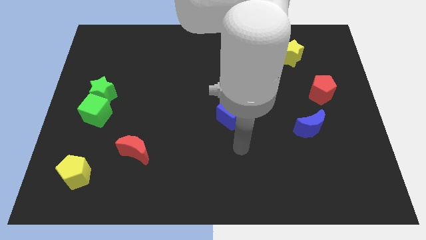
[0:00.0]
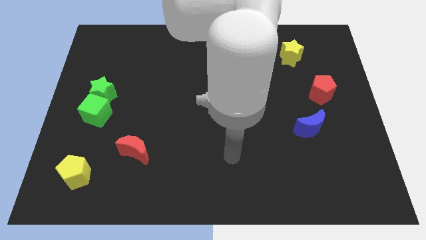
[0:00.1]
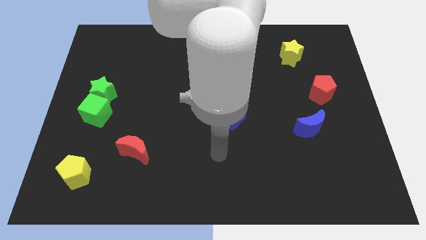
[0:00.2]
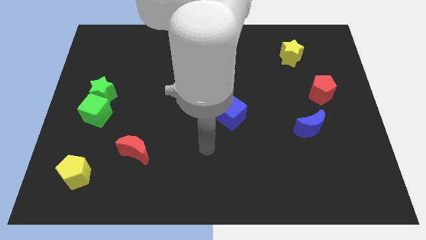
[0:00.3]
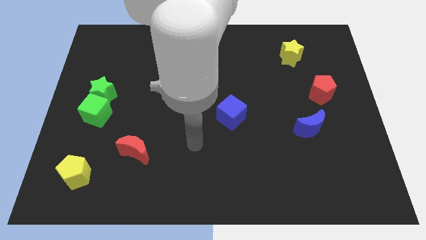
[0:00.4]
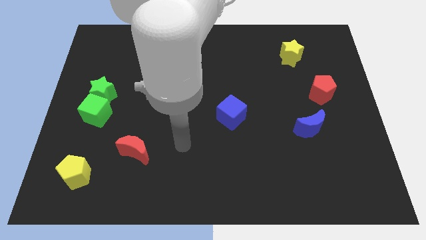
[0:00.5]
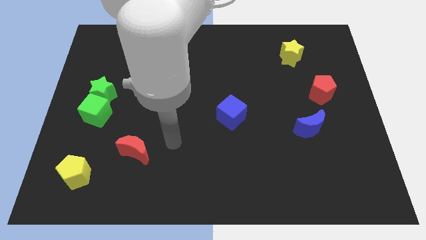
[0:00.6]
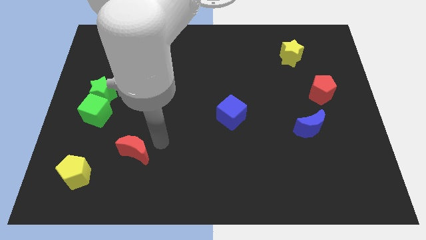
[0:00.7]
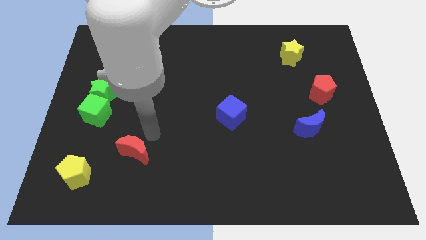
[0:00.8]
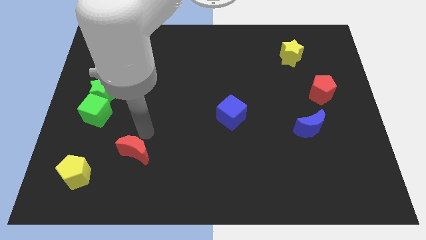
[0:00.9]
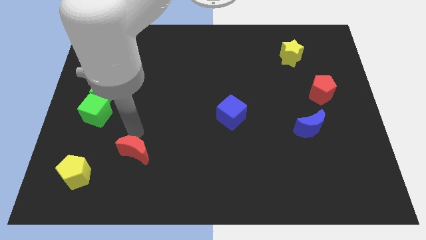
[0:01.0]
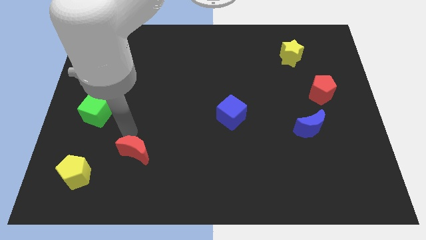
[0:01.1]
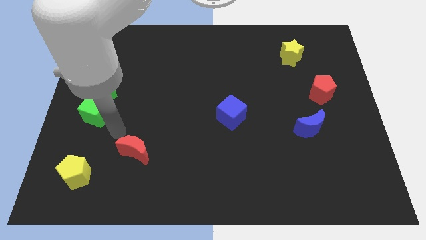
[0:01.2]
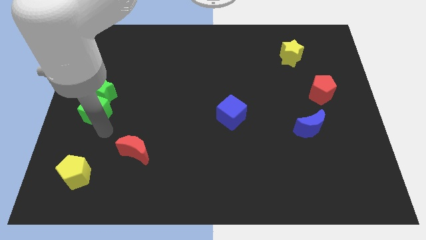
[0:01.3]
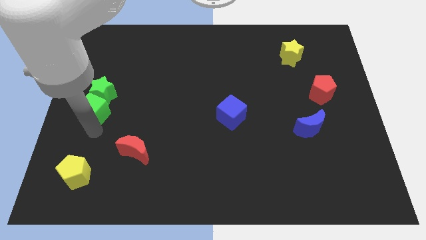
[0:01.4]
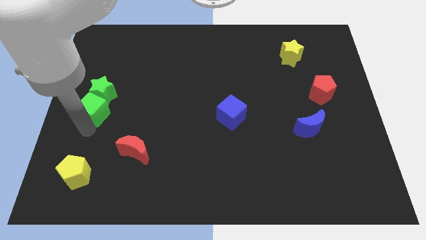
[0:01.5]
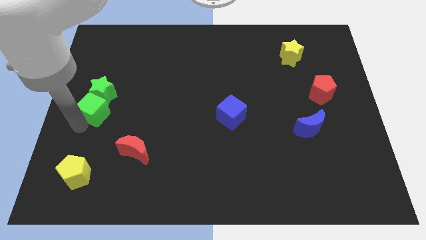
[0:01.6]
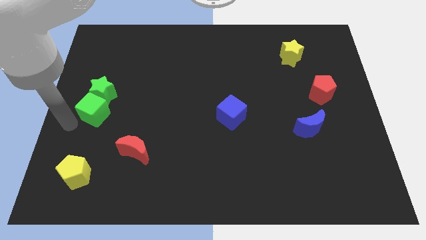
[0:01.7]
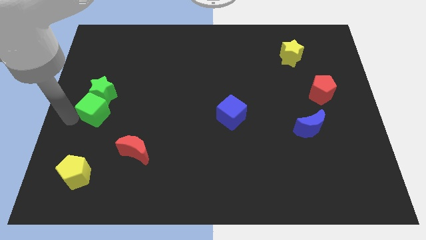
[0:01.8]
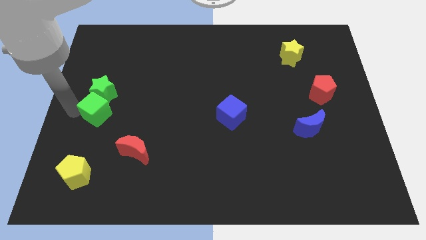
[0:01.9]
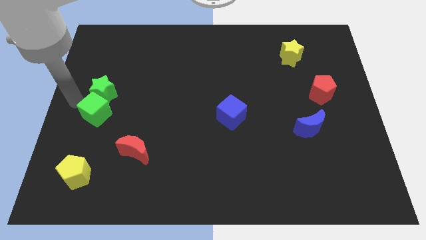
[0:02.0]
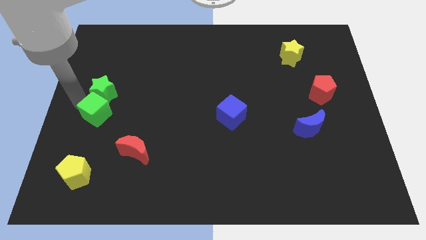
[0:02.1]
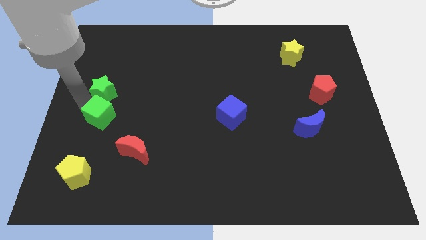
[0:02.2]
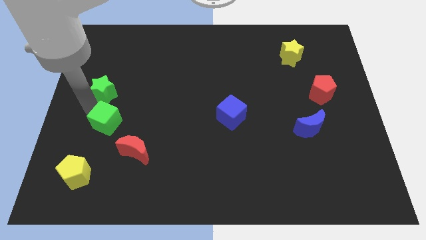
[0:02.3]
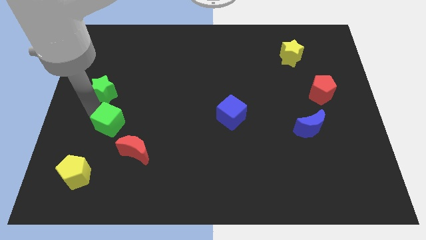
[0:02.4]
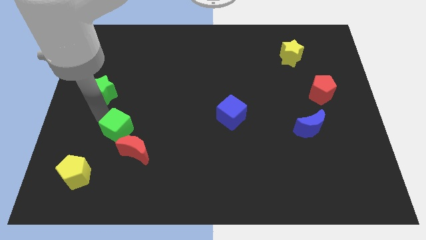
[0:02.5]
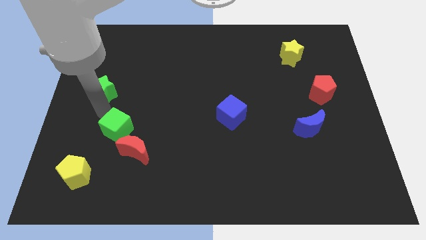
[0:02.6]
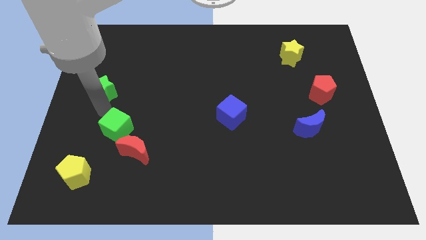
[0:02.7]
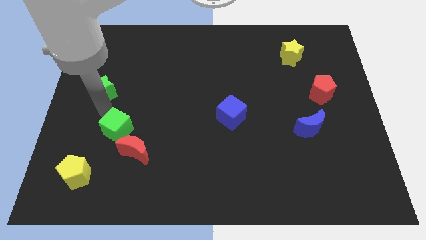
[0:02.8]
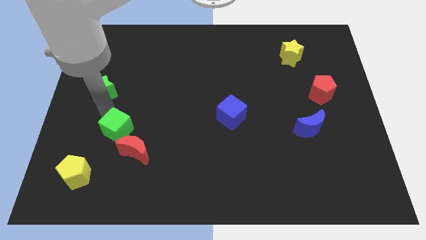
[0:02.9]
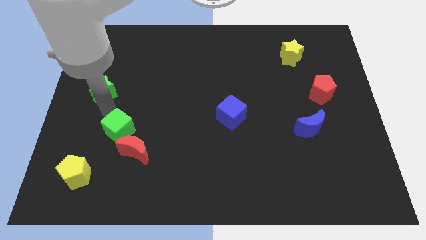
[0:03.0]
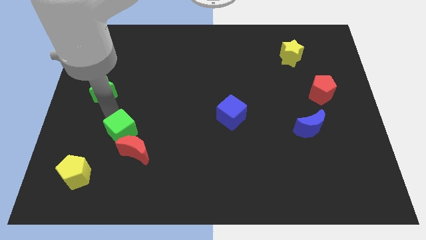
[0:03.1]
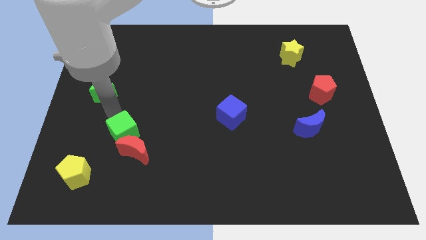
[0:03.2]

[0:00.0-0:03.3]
push the green cube close to the red moon

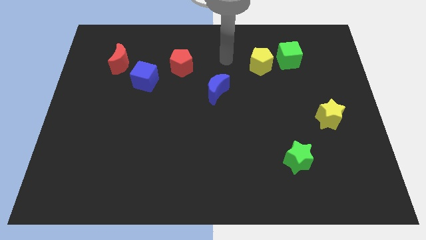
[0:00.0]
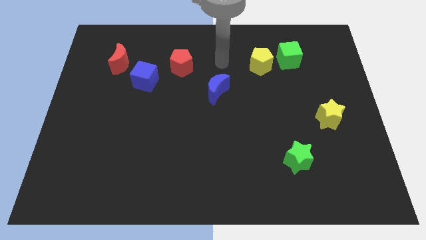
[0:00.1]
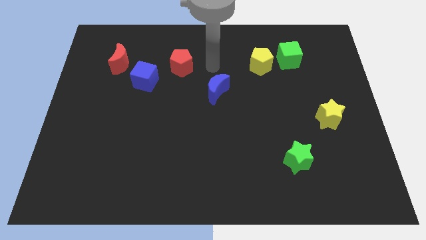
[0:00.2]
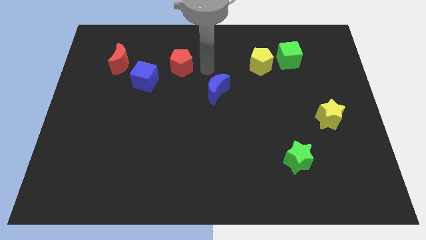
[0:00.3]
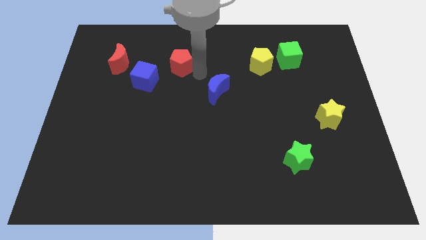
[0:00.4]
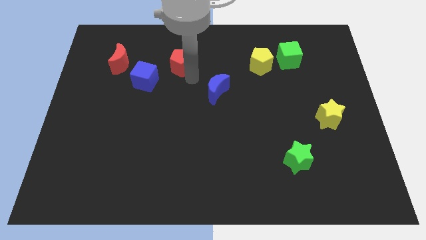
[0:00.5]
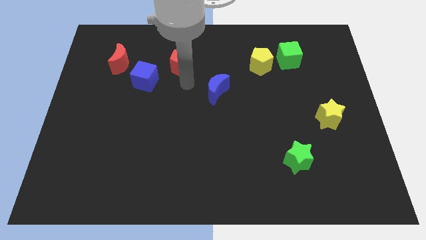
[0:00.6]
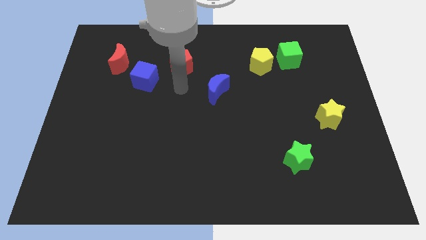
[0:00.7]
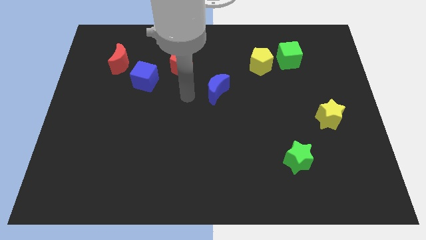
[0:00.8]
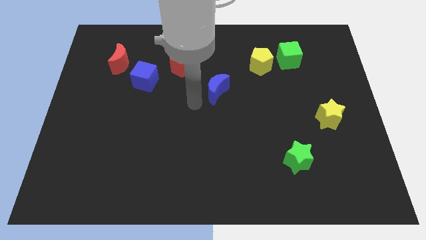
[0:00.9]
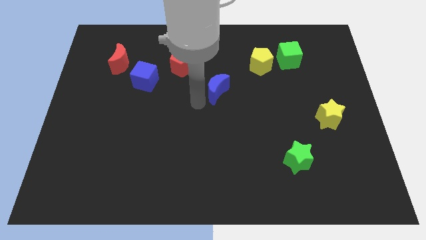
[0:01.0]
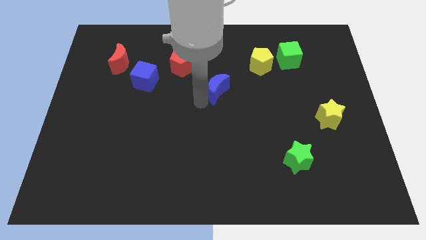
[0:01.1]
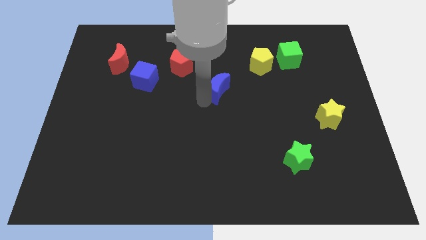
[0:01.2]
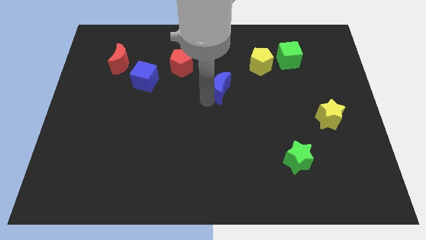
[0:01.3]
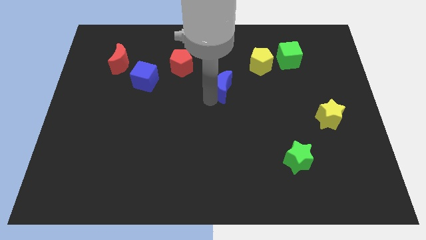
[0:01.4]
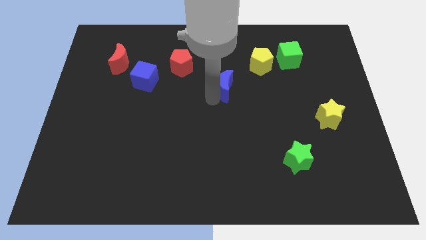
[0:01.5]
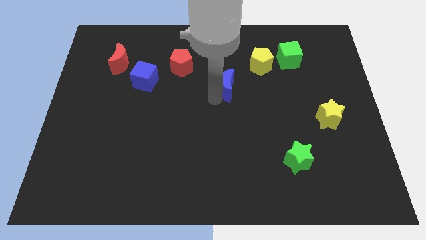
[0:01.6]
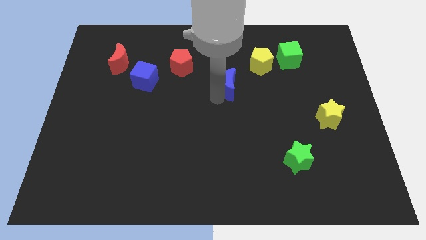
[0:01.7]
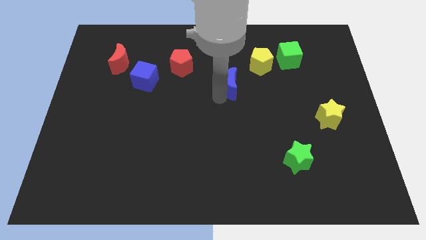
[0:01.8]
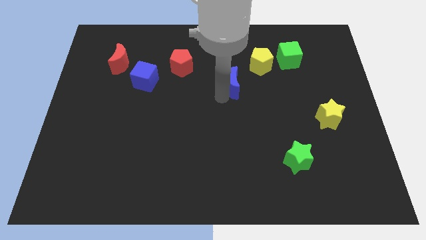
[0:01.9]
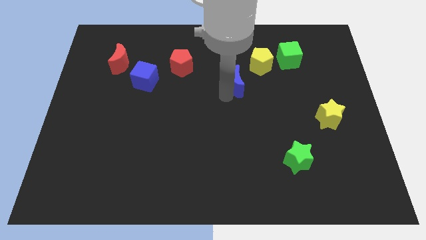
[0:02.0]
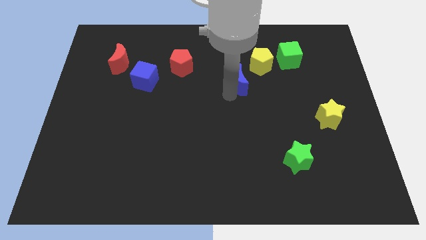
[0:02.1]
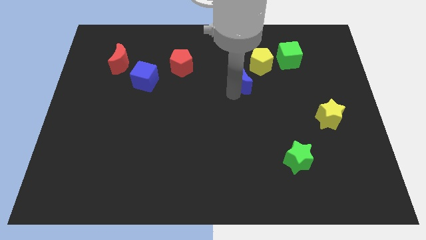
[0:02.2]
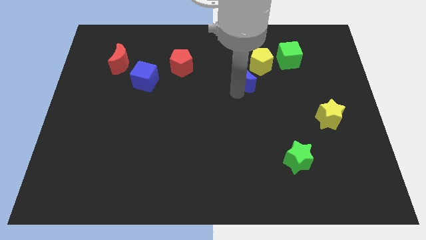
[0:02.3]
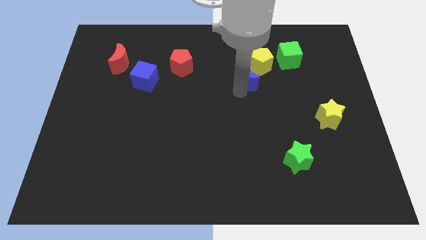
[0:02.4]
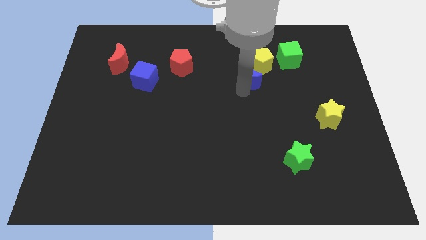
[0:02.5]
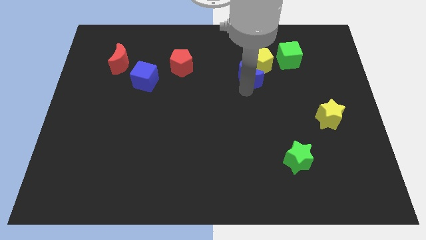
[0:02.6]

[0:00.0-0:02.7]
move the blue moon next to the yellow pentagon

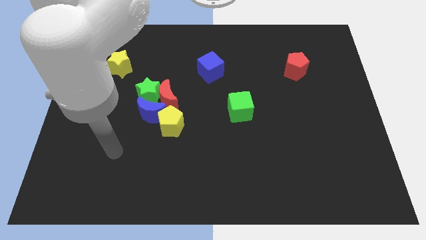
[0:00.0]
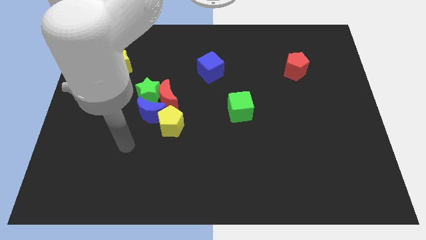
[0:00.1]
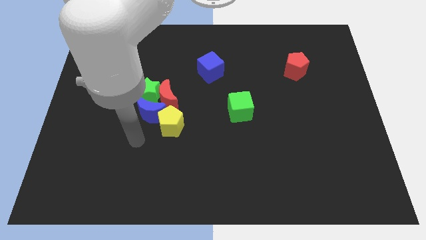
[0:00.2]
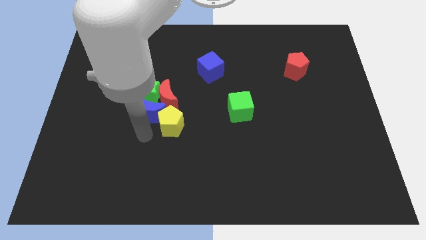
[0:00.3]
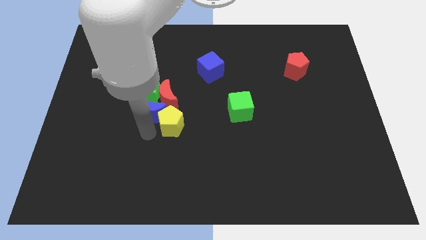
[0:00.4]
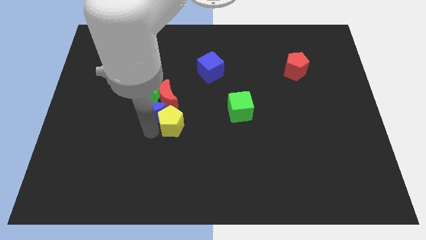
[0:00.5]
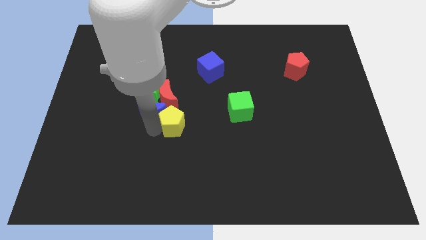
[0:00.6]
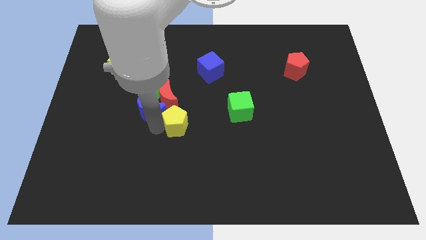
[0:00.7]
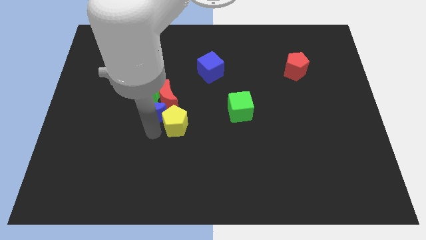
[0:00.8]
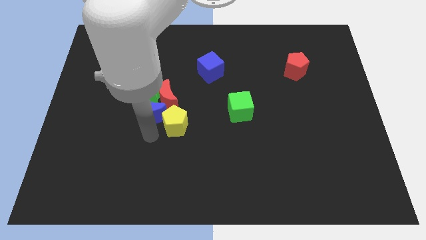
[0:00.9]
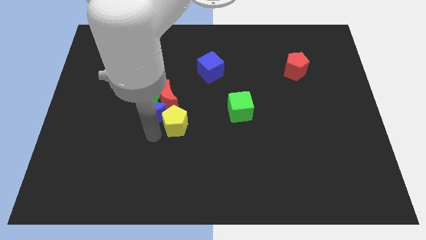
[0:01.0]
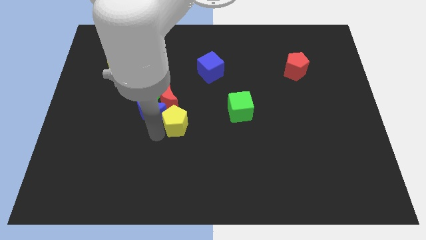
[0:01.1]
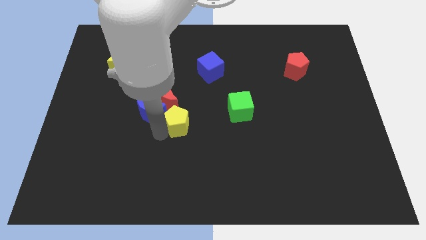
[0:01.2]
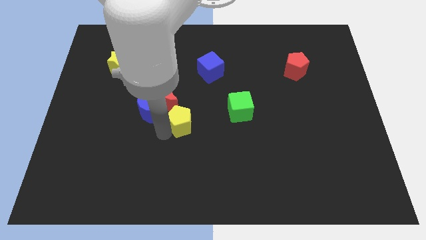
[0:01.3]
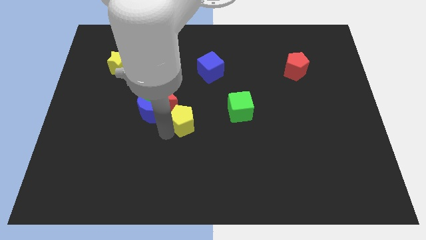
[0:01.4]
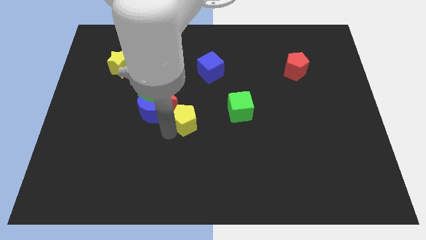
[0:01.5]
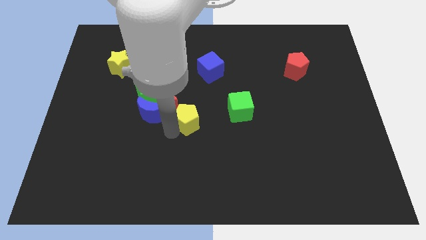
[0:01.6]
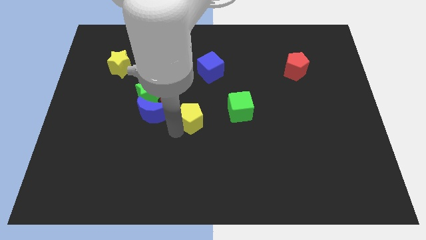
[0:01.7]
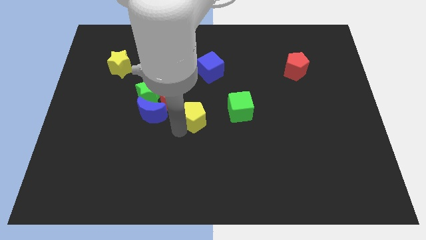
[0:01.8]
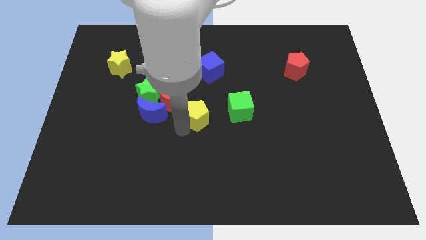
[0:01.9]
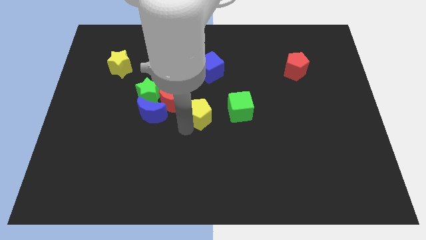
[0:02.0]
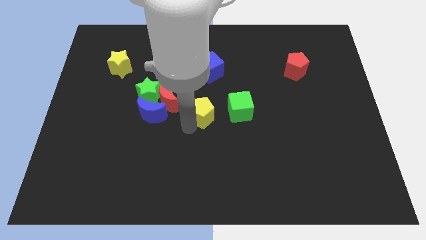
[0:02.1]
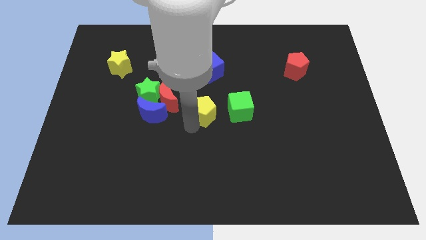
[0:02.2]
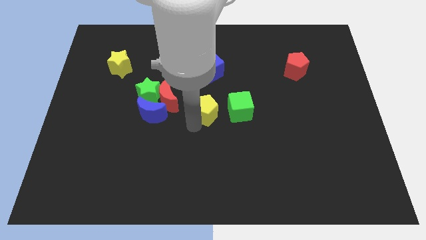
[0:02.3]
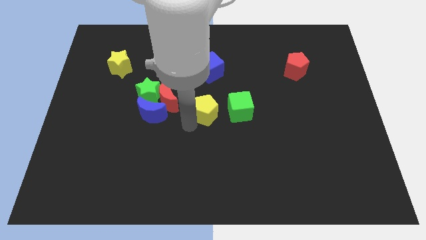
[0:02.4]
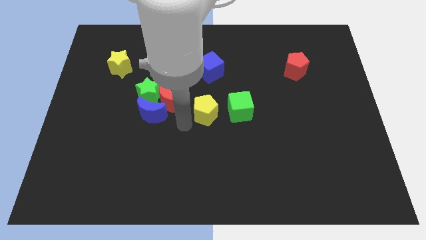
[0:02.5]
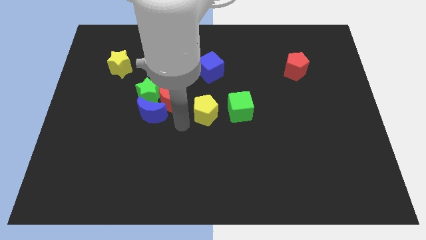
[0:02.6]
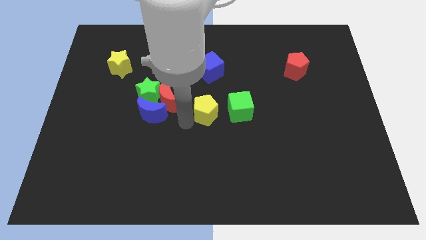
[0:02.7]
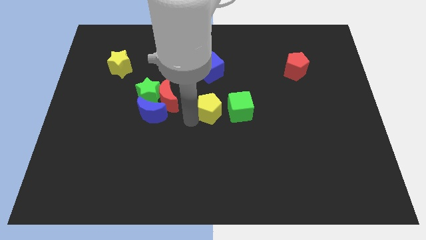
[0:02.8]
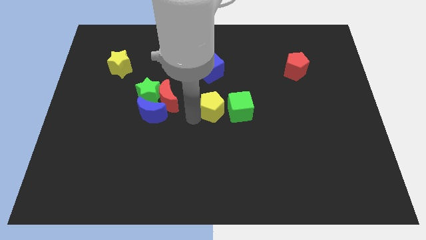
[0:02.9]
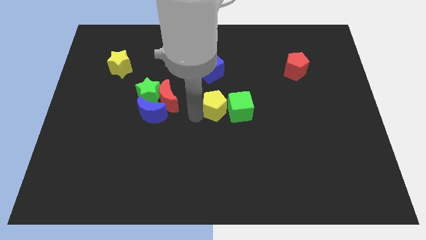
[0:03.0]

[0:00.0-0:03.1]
slide the yellow pentagon close to the green cube
